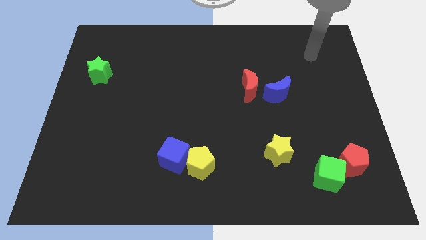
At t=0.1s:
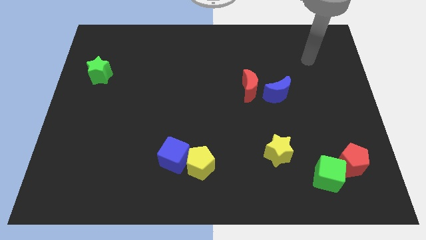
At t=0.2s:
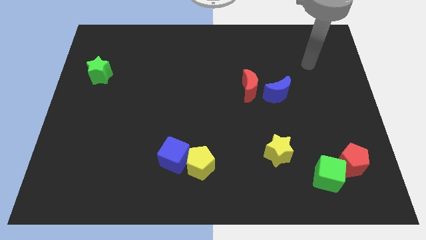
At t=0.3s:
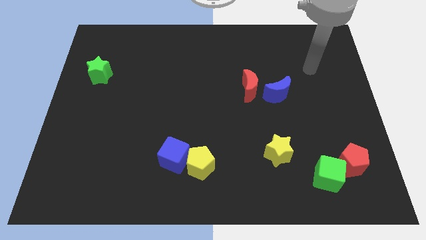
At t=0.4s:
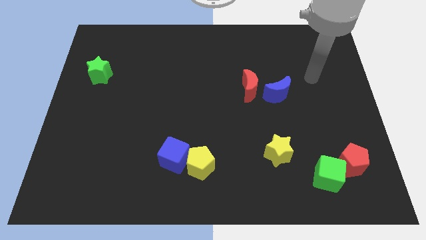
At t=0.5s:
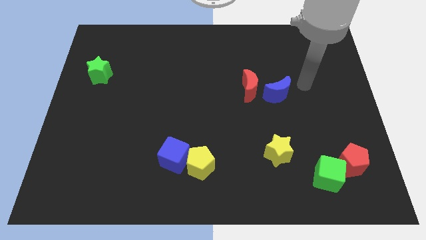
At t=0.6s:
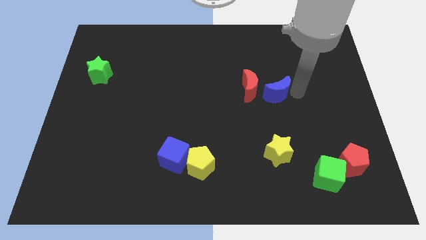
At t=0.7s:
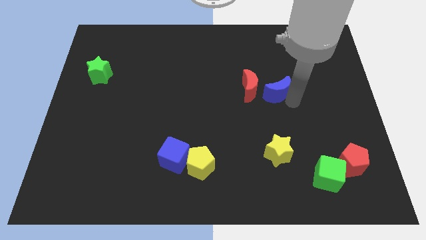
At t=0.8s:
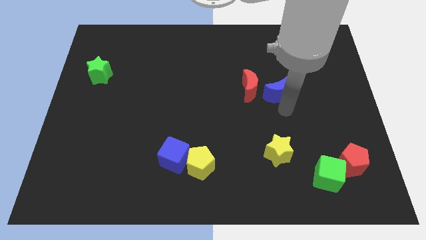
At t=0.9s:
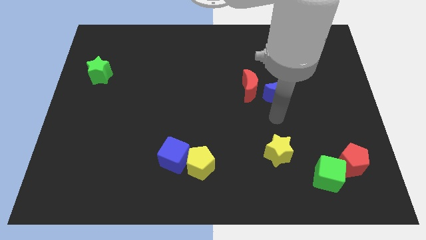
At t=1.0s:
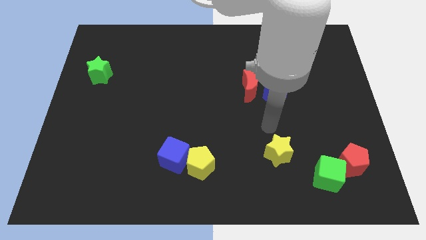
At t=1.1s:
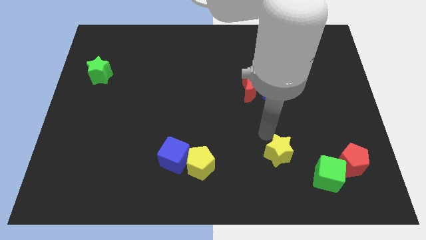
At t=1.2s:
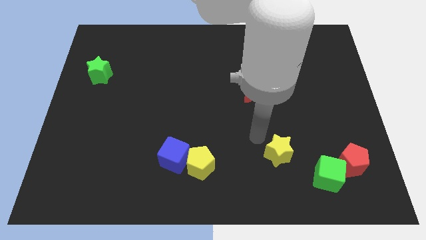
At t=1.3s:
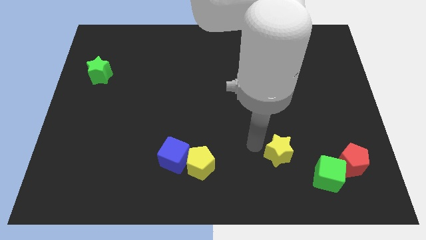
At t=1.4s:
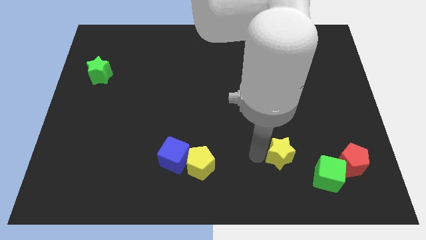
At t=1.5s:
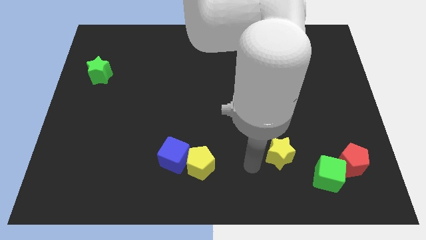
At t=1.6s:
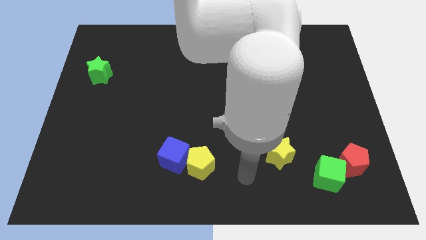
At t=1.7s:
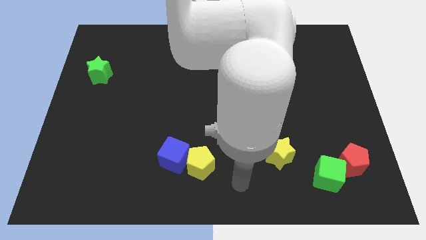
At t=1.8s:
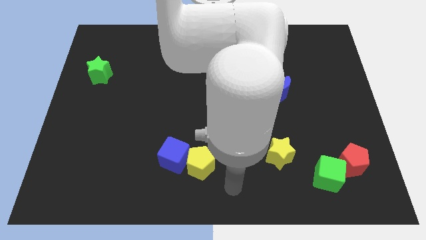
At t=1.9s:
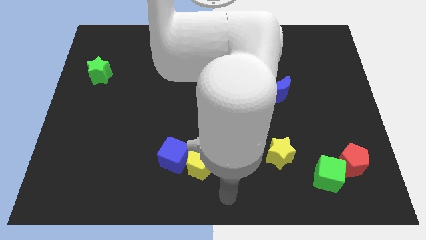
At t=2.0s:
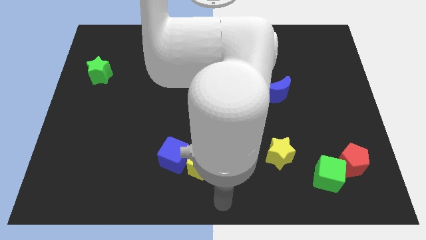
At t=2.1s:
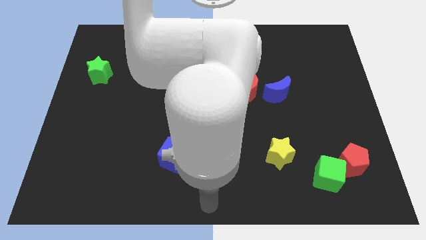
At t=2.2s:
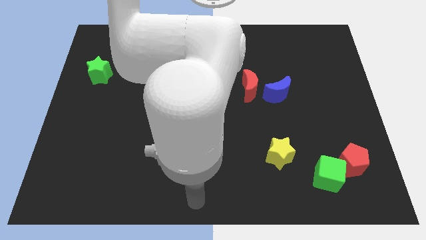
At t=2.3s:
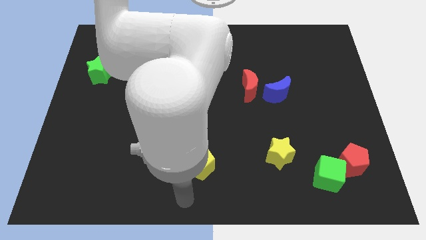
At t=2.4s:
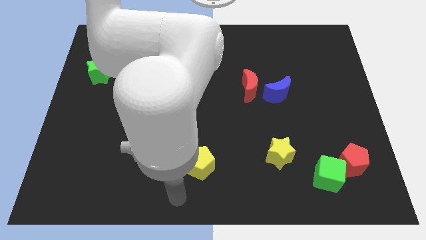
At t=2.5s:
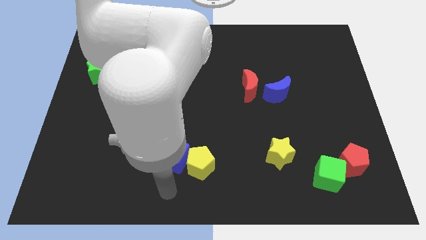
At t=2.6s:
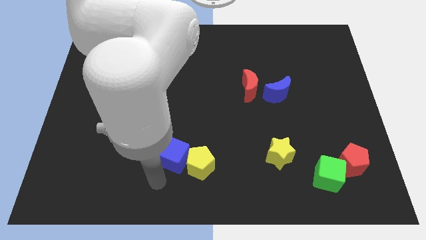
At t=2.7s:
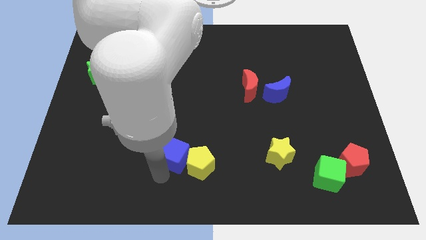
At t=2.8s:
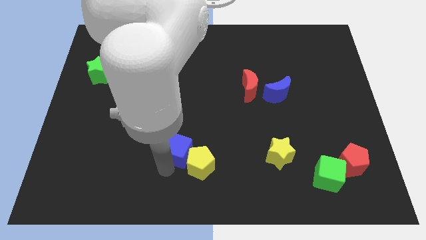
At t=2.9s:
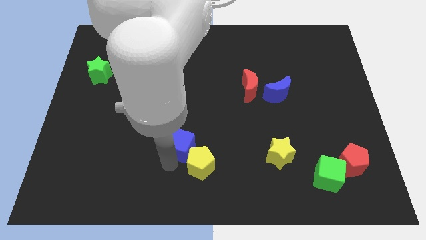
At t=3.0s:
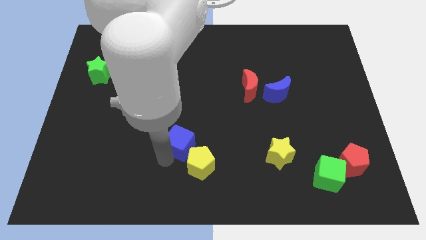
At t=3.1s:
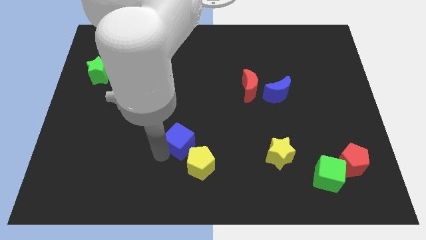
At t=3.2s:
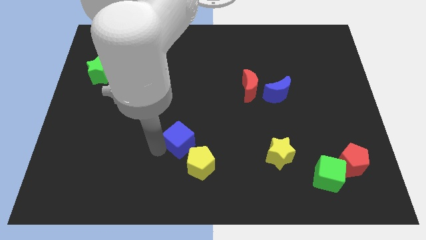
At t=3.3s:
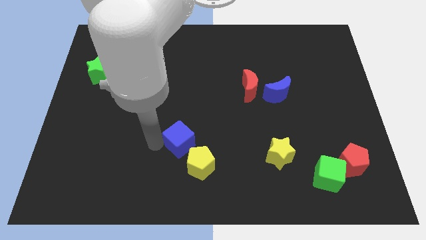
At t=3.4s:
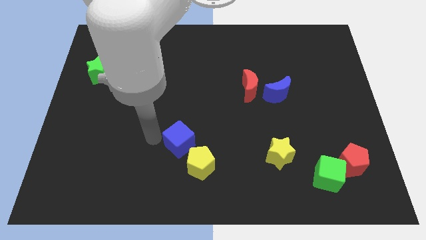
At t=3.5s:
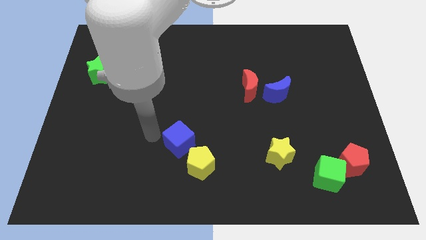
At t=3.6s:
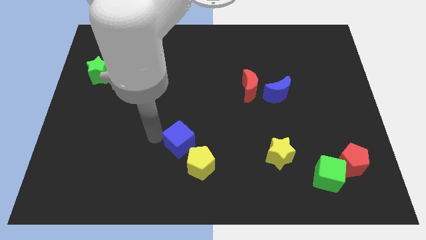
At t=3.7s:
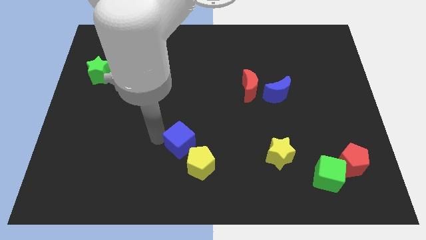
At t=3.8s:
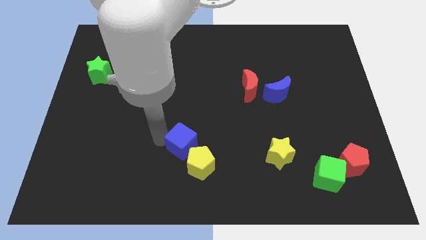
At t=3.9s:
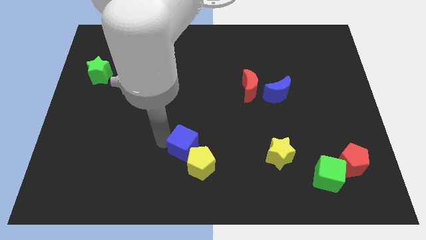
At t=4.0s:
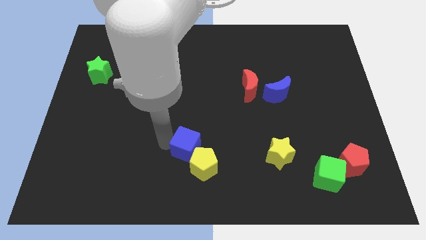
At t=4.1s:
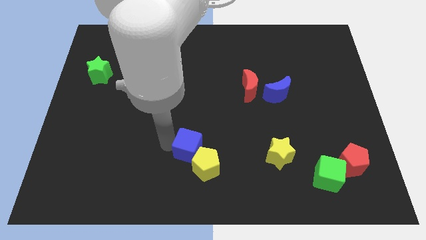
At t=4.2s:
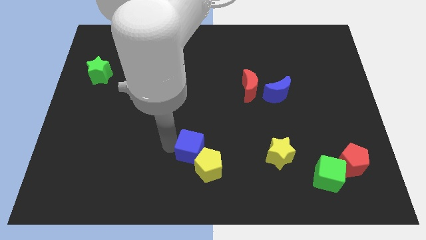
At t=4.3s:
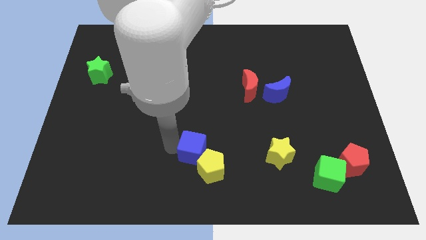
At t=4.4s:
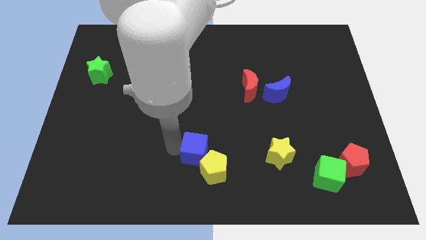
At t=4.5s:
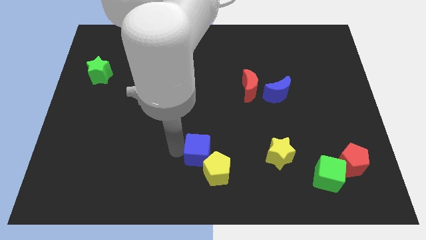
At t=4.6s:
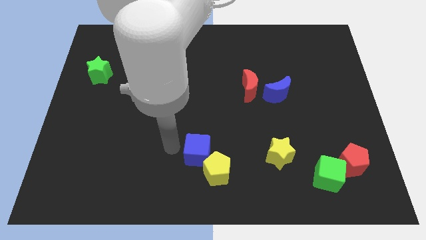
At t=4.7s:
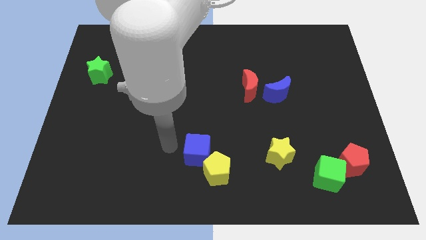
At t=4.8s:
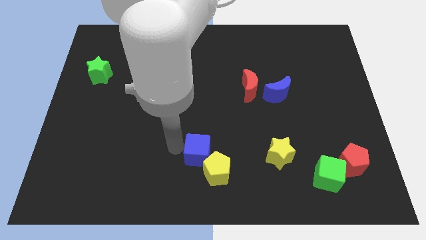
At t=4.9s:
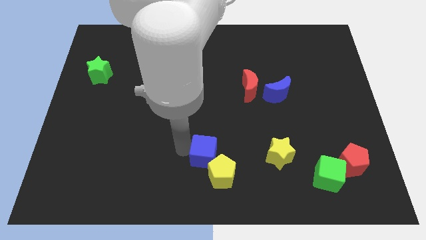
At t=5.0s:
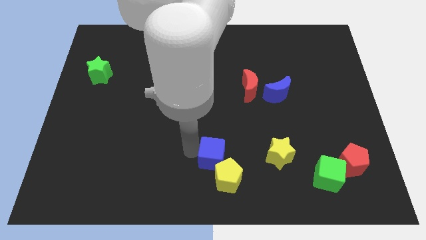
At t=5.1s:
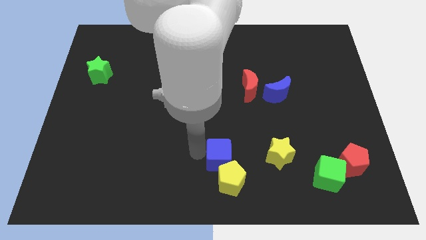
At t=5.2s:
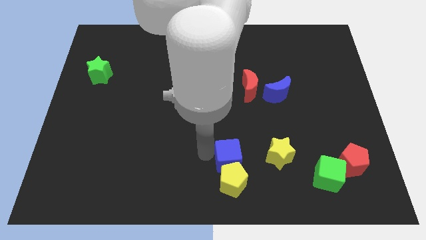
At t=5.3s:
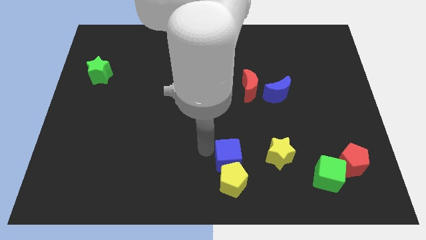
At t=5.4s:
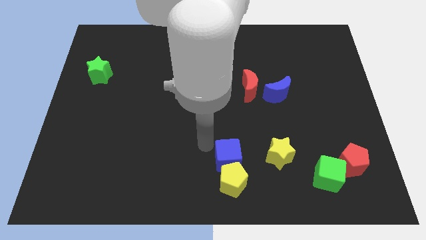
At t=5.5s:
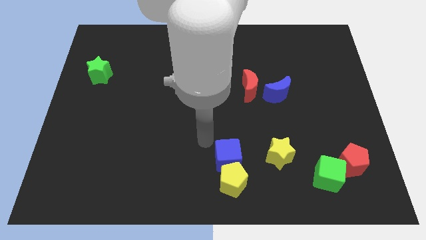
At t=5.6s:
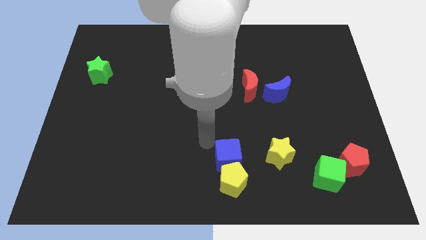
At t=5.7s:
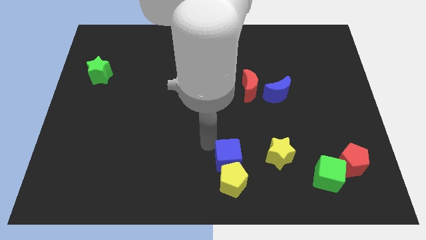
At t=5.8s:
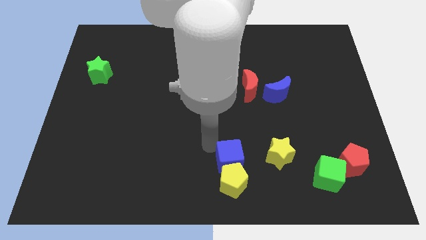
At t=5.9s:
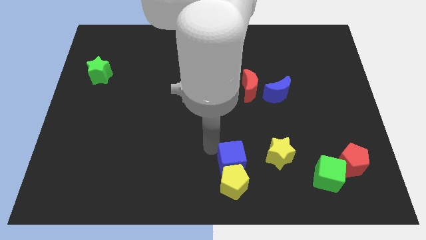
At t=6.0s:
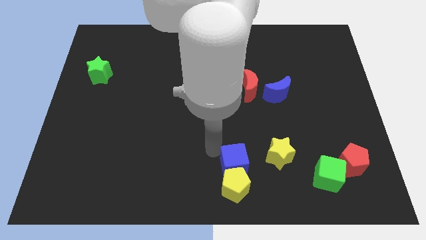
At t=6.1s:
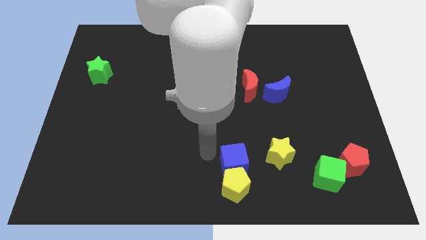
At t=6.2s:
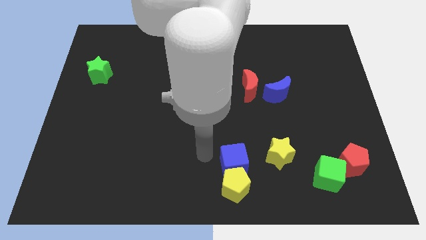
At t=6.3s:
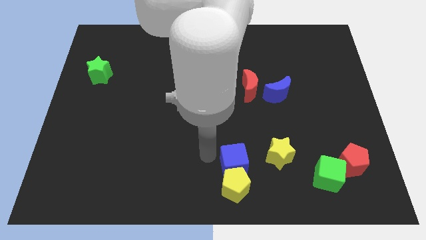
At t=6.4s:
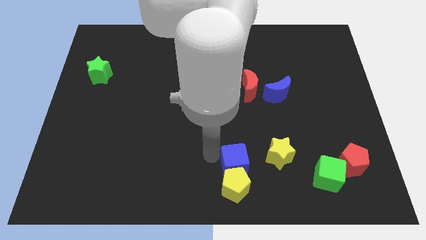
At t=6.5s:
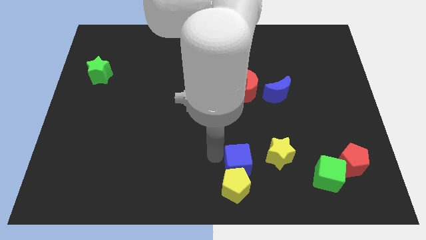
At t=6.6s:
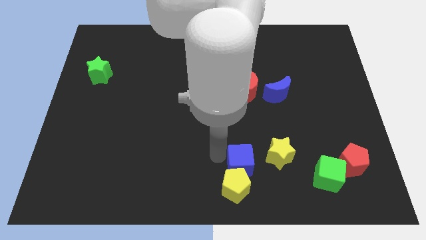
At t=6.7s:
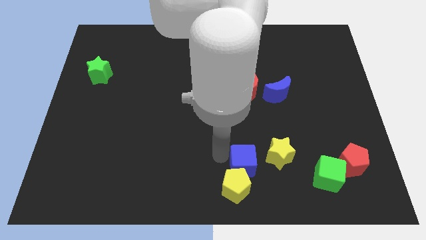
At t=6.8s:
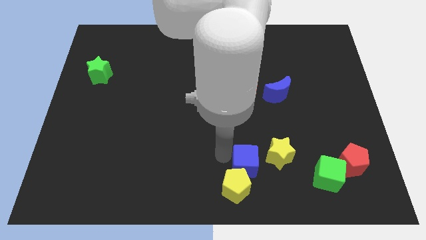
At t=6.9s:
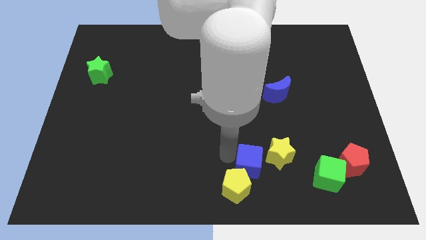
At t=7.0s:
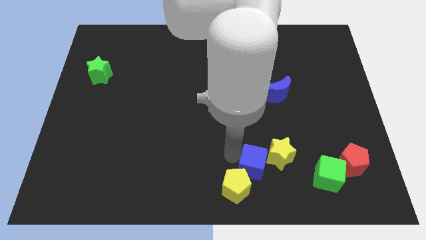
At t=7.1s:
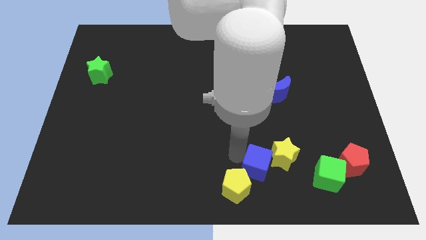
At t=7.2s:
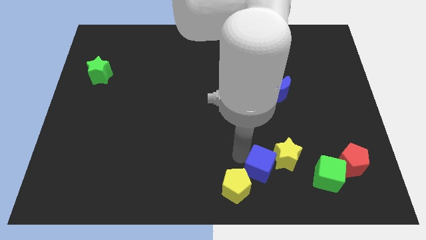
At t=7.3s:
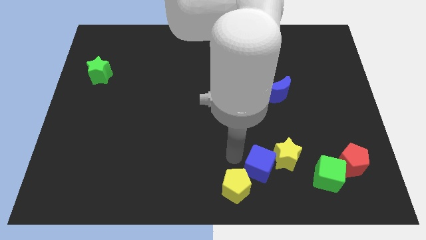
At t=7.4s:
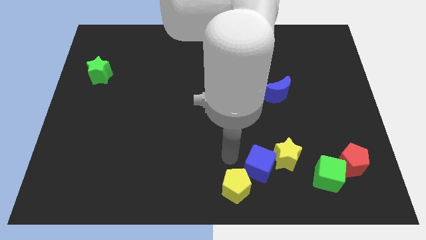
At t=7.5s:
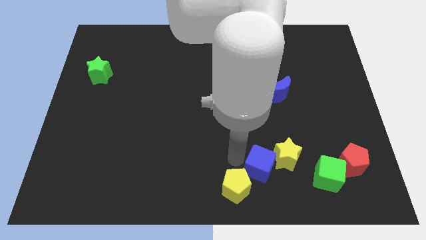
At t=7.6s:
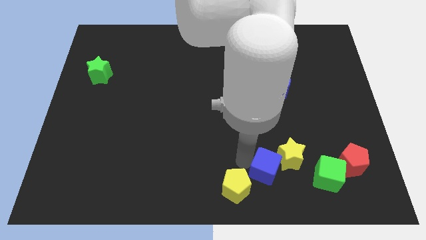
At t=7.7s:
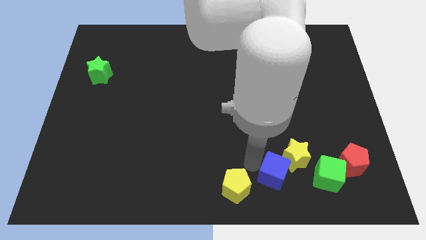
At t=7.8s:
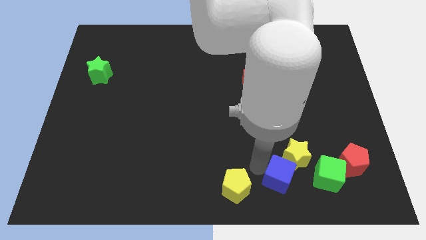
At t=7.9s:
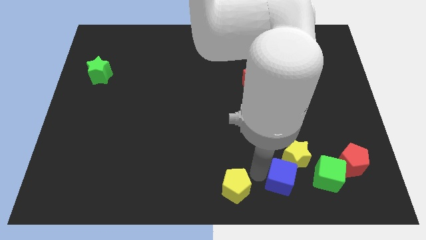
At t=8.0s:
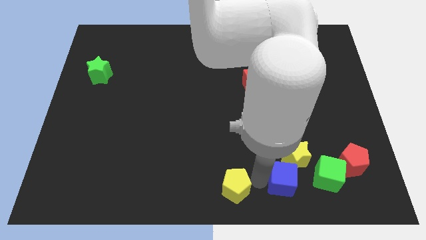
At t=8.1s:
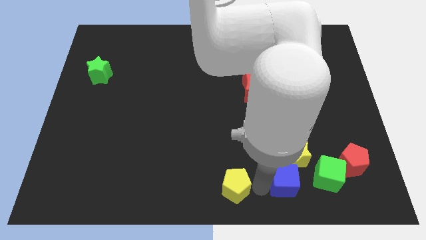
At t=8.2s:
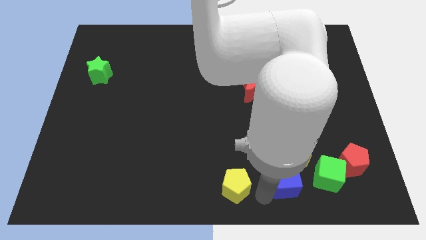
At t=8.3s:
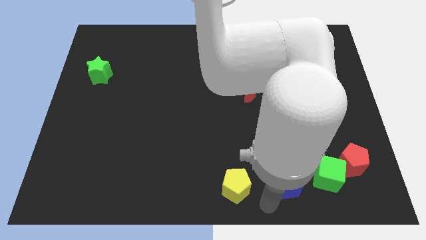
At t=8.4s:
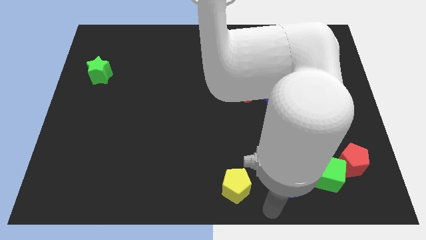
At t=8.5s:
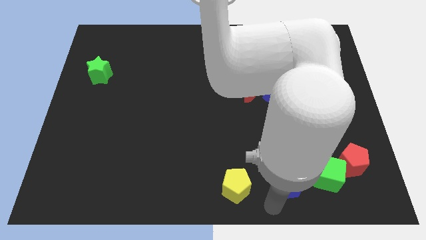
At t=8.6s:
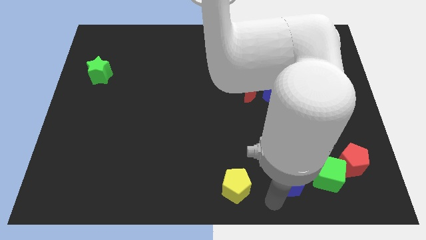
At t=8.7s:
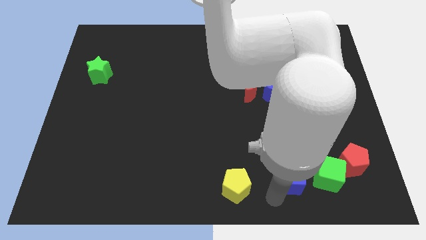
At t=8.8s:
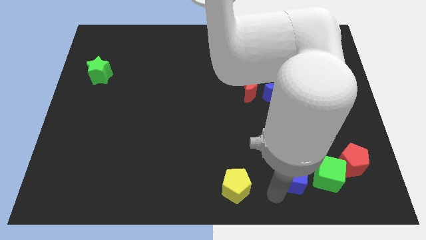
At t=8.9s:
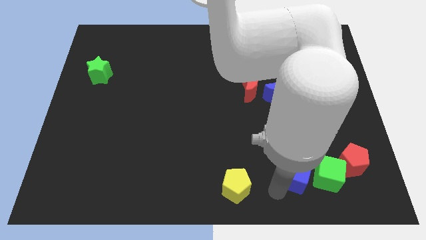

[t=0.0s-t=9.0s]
slide the blue cube to the top left of the green cube
